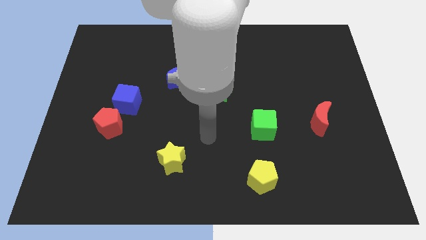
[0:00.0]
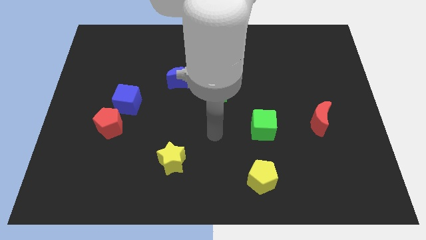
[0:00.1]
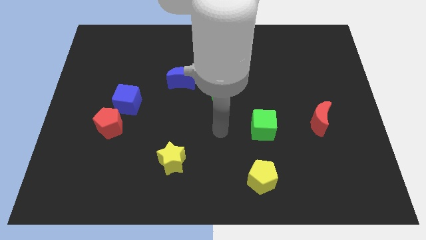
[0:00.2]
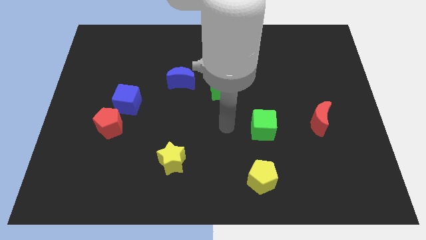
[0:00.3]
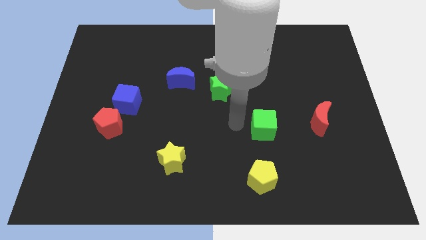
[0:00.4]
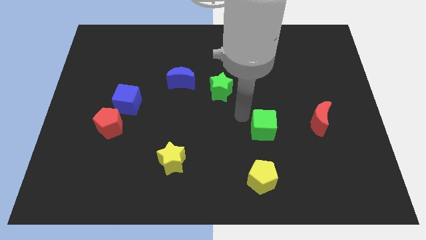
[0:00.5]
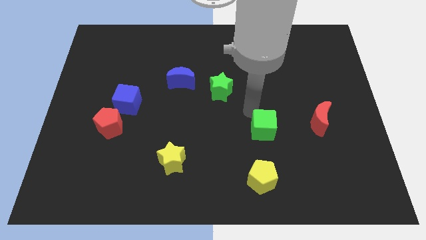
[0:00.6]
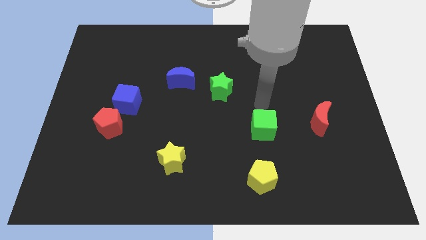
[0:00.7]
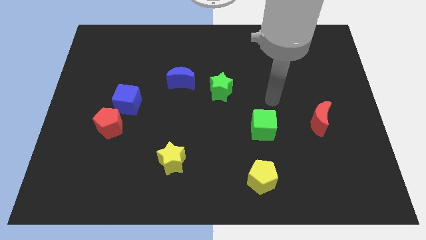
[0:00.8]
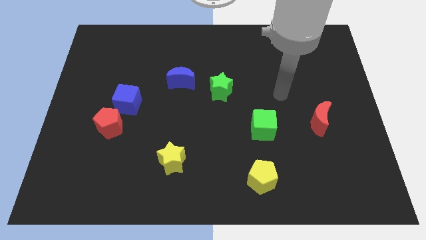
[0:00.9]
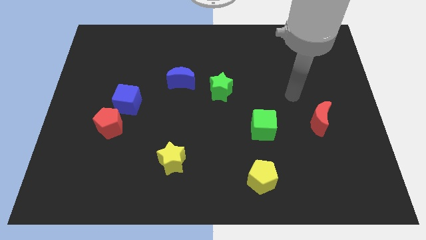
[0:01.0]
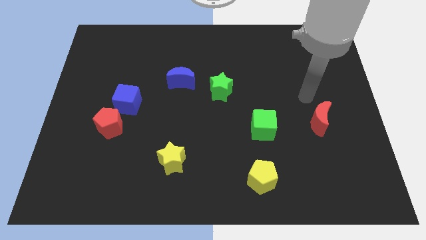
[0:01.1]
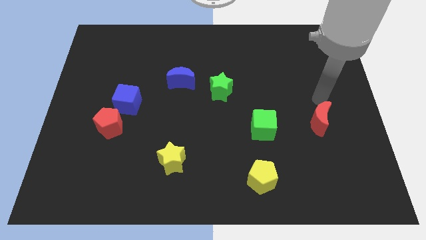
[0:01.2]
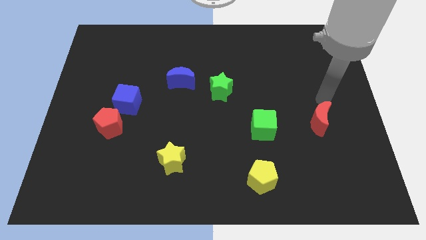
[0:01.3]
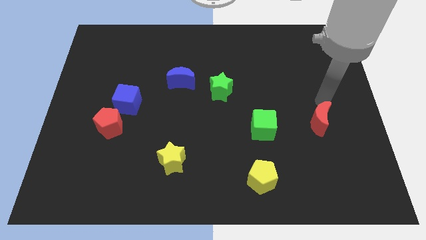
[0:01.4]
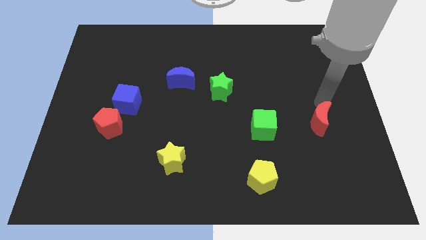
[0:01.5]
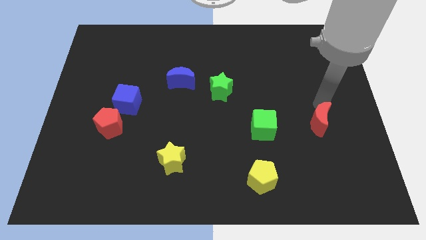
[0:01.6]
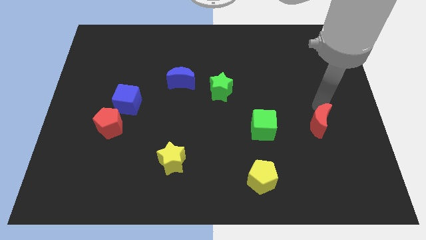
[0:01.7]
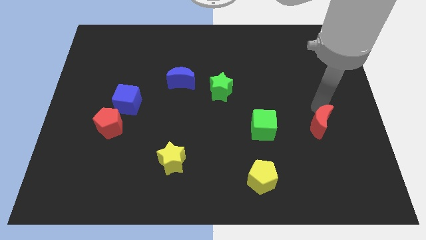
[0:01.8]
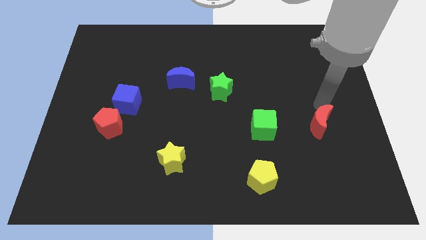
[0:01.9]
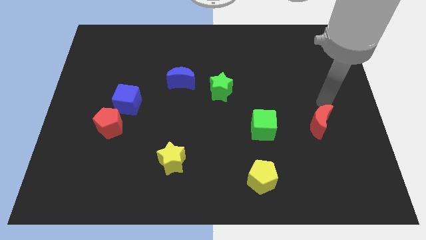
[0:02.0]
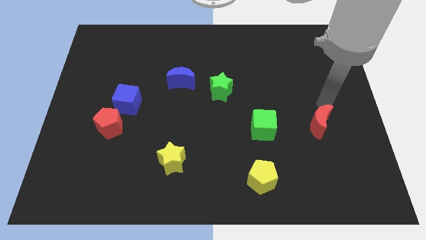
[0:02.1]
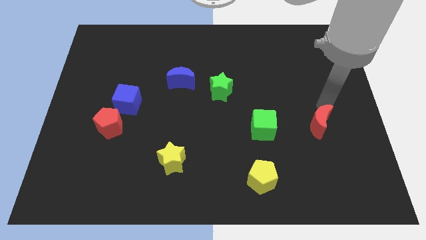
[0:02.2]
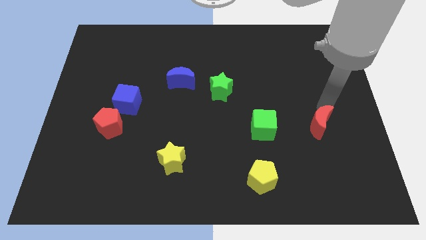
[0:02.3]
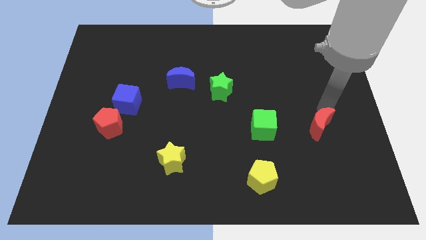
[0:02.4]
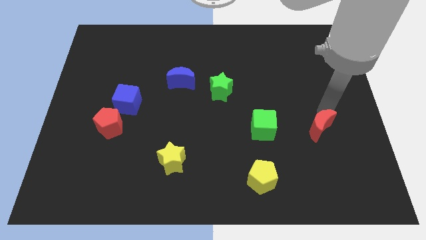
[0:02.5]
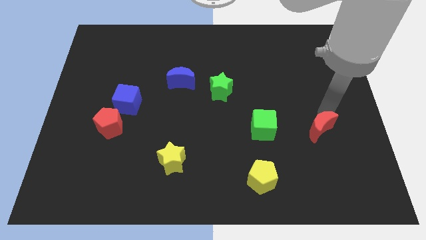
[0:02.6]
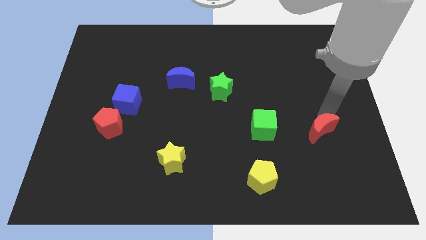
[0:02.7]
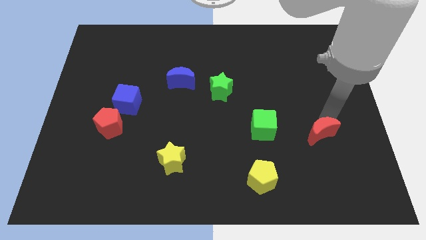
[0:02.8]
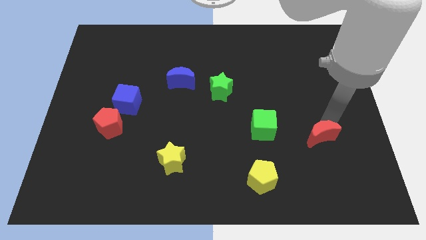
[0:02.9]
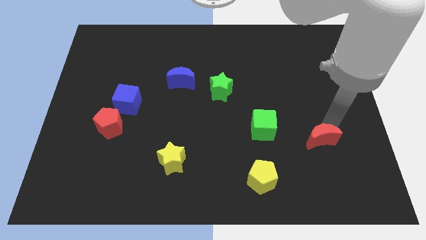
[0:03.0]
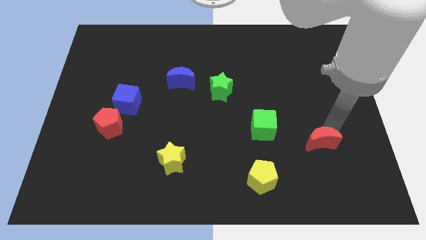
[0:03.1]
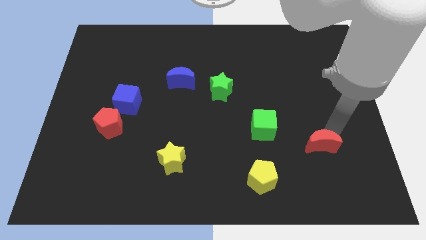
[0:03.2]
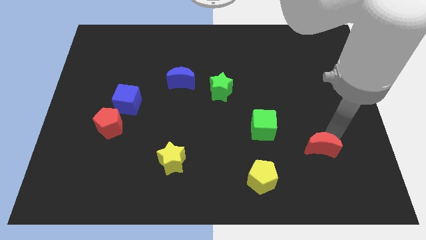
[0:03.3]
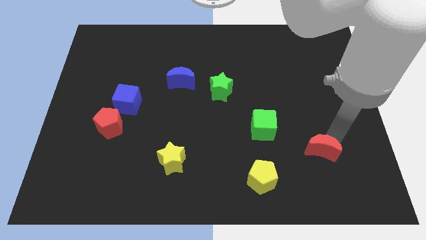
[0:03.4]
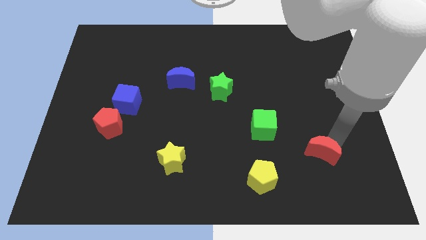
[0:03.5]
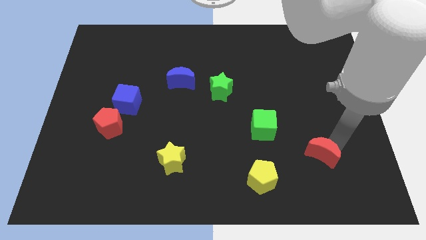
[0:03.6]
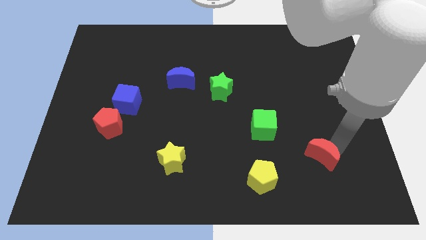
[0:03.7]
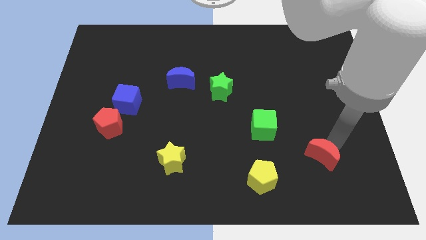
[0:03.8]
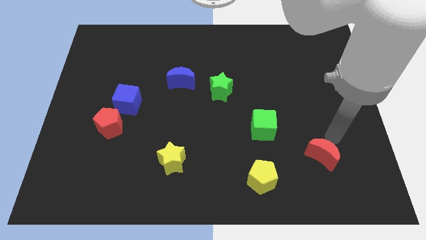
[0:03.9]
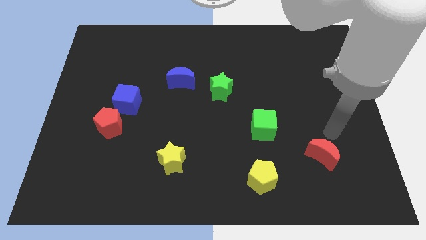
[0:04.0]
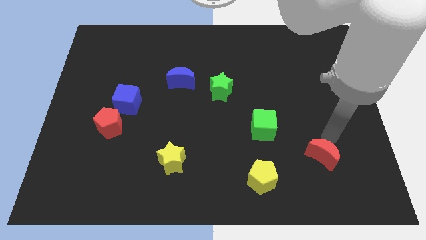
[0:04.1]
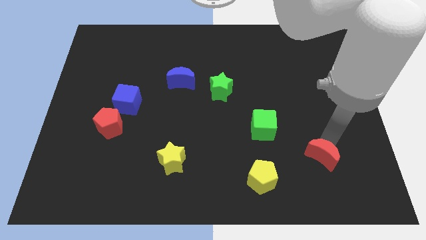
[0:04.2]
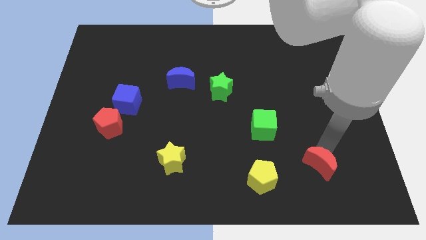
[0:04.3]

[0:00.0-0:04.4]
put the red moon just right of the yellow pentagon

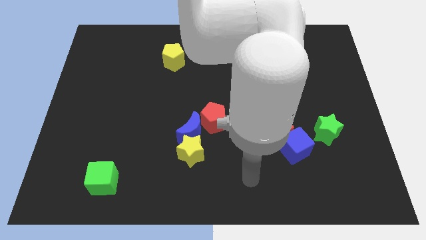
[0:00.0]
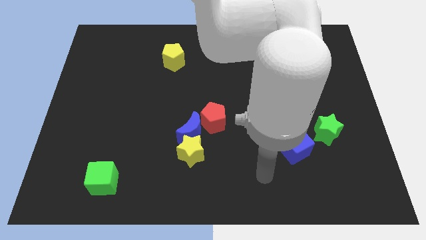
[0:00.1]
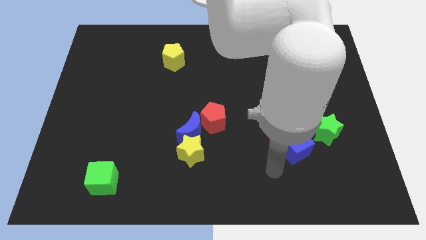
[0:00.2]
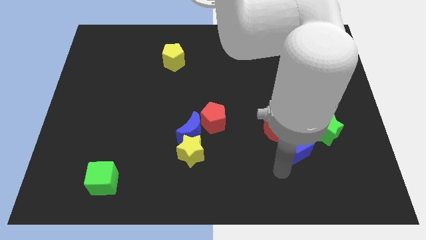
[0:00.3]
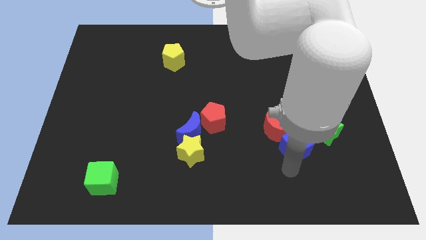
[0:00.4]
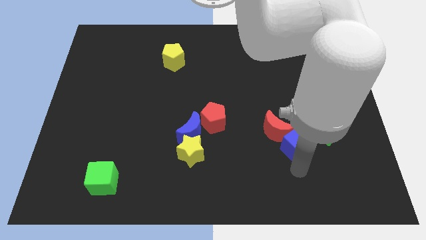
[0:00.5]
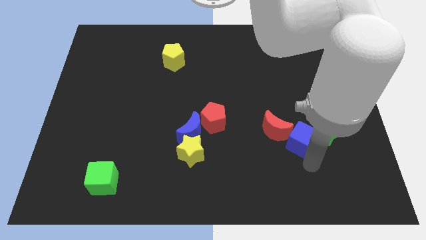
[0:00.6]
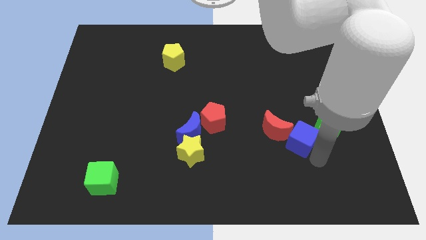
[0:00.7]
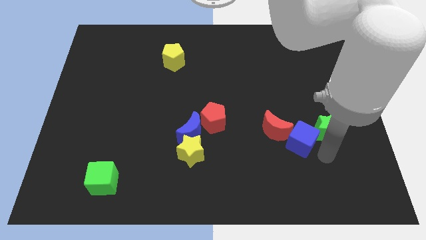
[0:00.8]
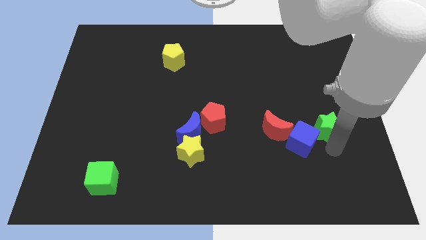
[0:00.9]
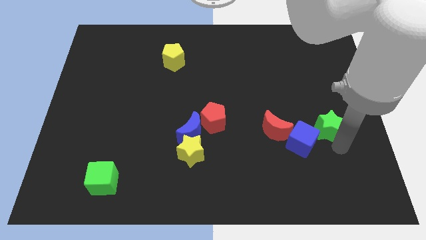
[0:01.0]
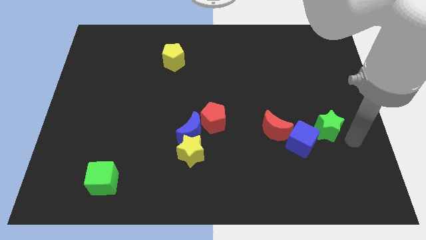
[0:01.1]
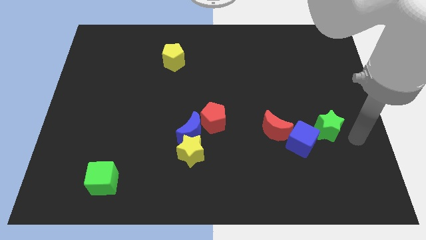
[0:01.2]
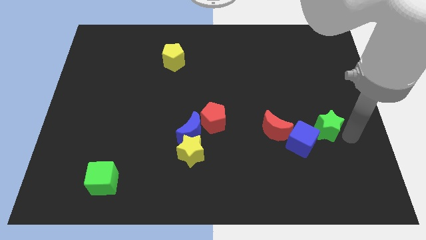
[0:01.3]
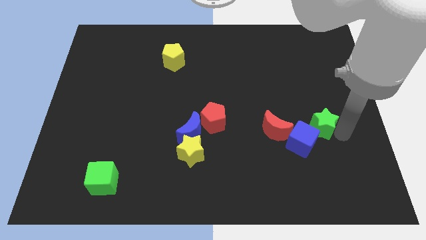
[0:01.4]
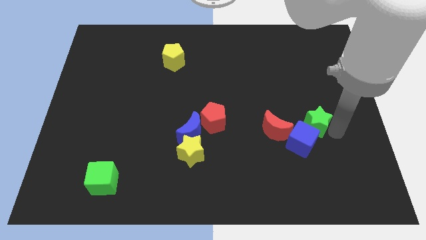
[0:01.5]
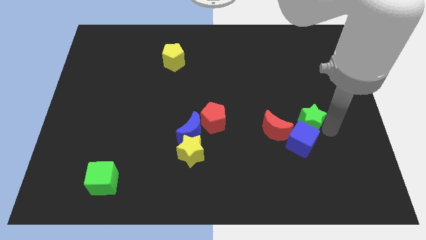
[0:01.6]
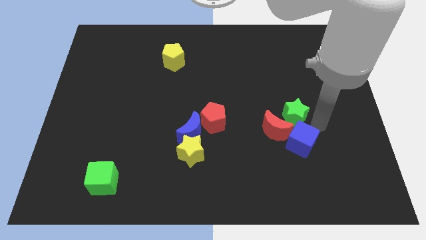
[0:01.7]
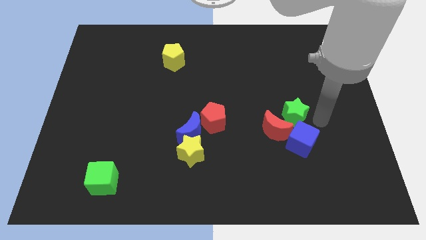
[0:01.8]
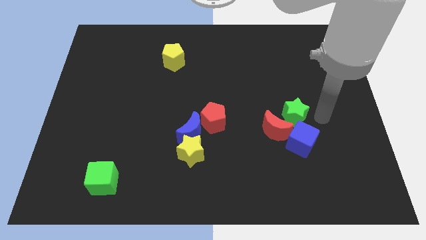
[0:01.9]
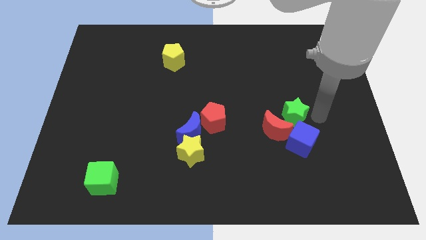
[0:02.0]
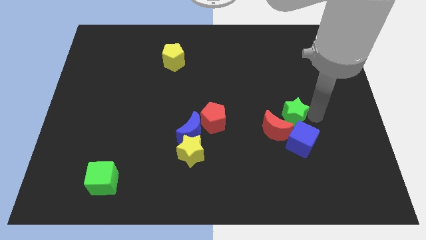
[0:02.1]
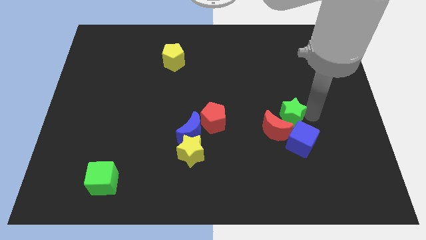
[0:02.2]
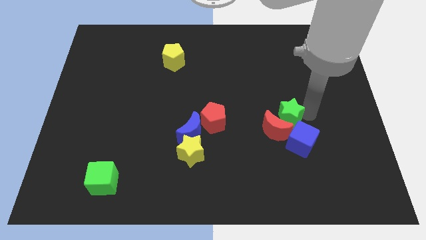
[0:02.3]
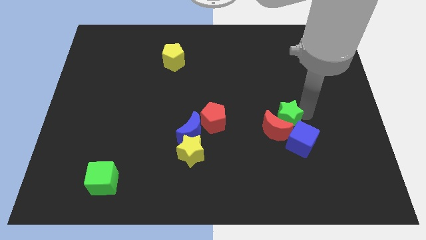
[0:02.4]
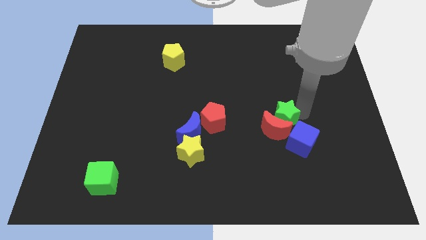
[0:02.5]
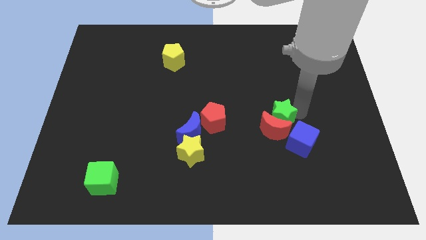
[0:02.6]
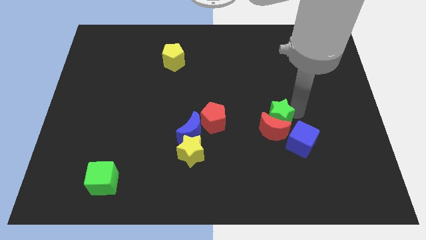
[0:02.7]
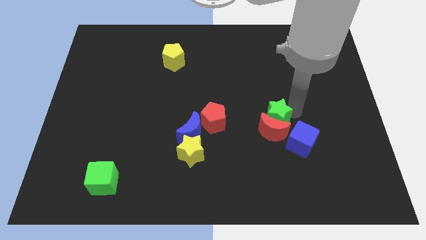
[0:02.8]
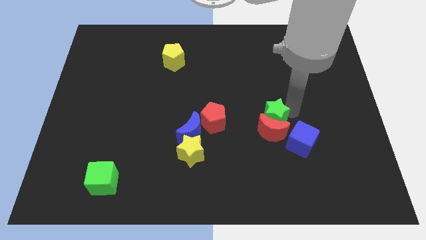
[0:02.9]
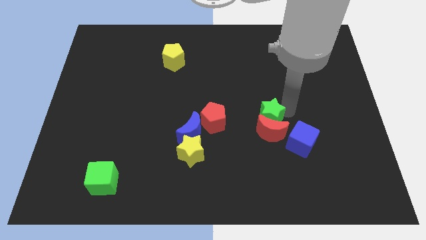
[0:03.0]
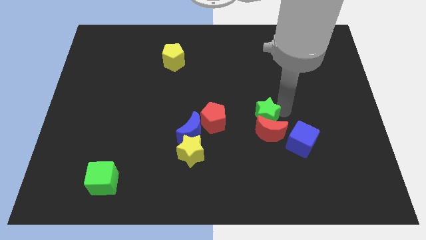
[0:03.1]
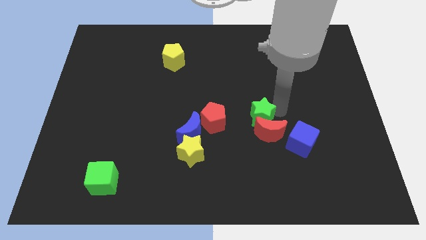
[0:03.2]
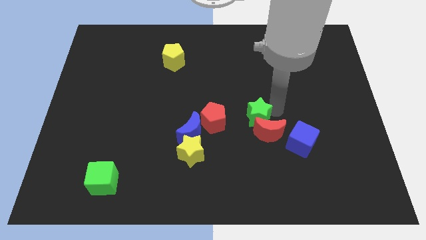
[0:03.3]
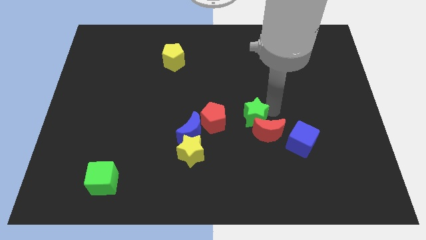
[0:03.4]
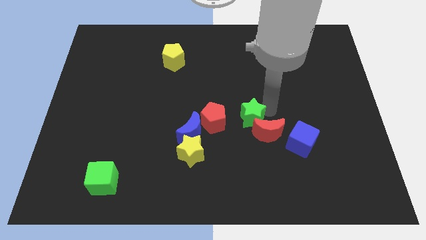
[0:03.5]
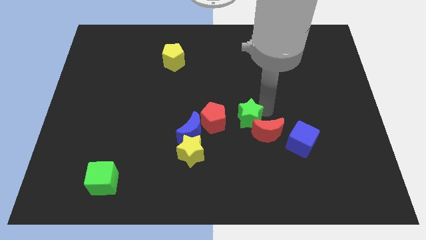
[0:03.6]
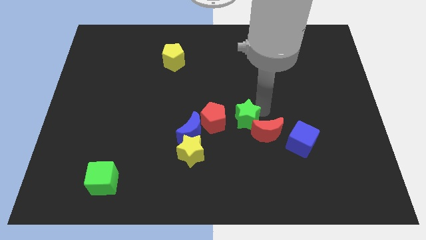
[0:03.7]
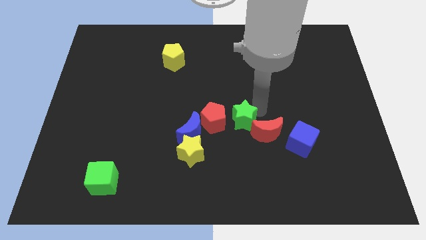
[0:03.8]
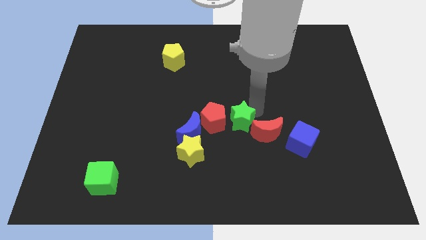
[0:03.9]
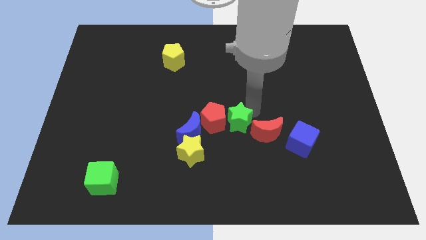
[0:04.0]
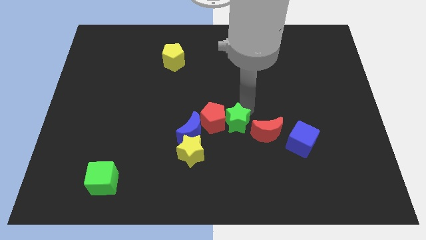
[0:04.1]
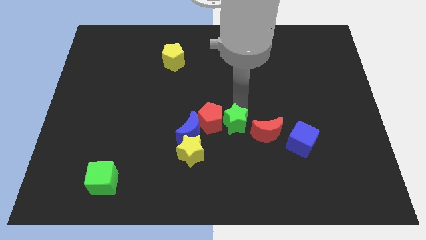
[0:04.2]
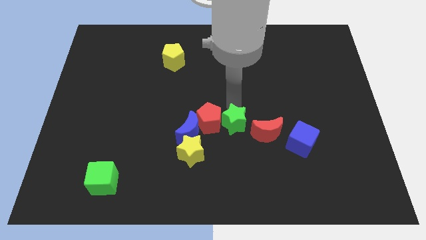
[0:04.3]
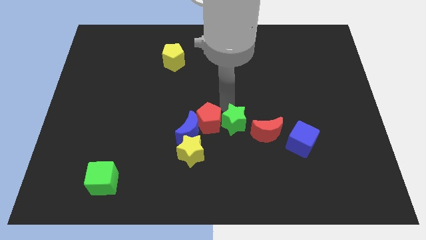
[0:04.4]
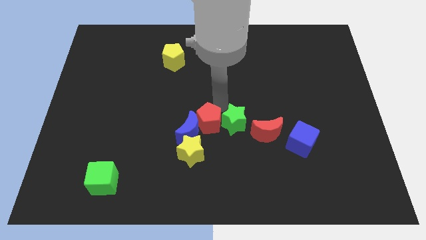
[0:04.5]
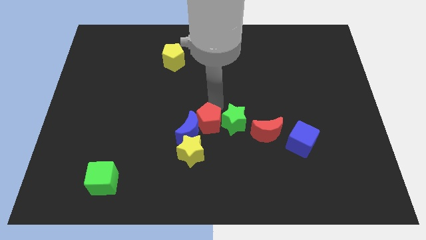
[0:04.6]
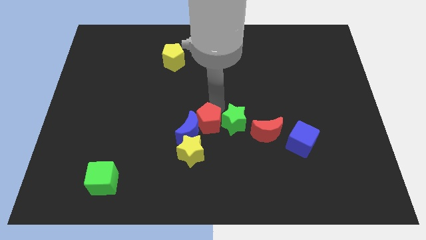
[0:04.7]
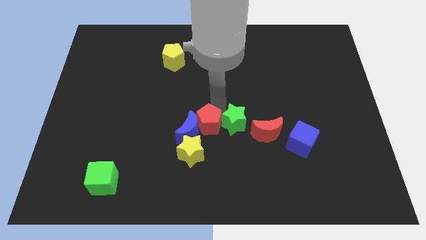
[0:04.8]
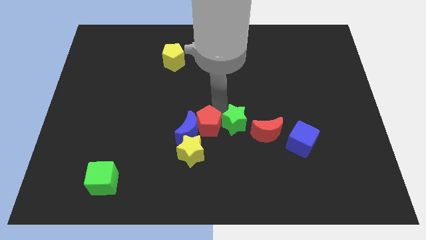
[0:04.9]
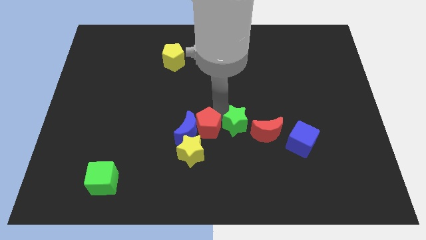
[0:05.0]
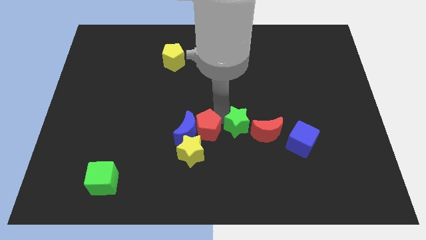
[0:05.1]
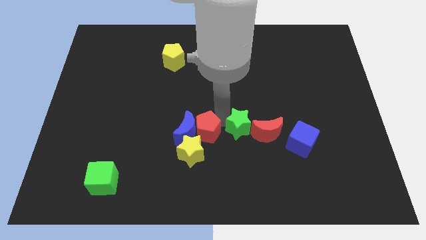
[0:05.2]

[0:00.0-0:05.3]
push the green star left of the blue cube
